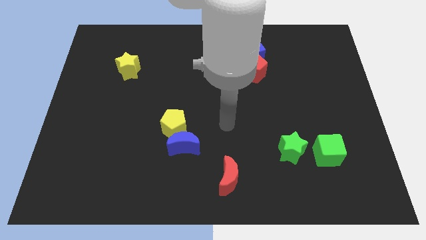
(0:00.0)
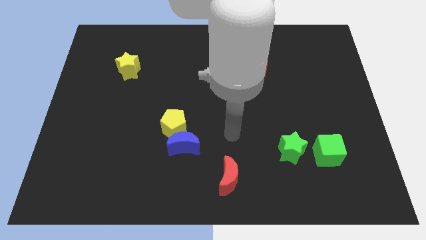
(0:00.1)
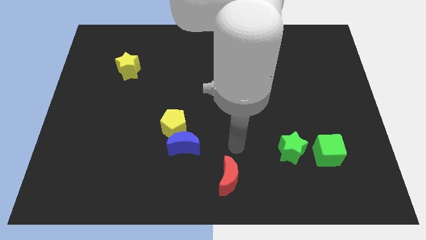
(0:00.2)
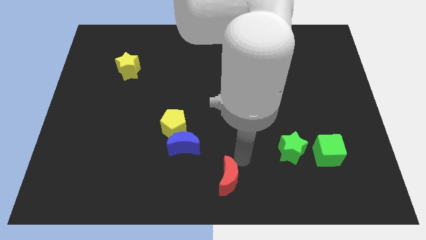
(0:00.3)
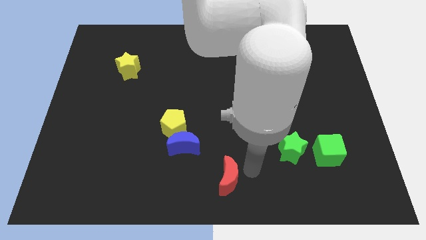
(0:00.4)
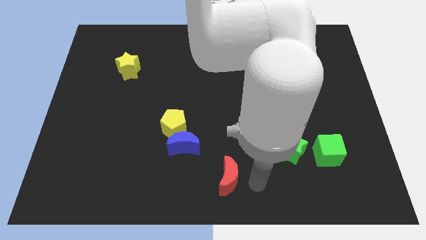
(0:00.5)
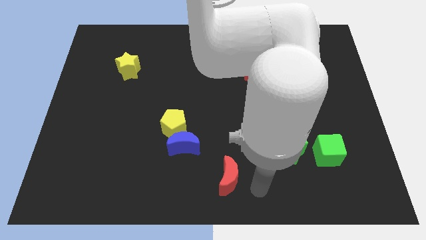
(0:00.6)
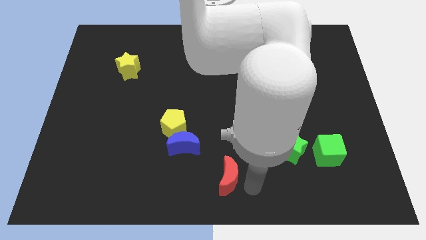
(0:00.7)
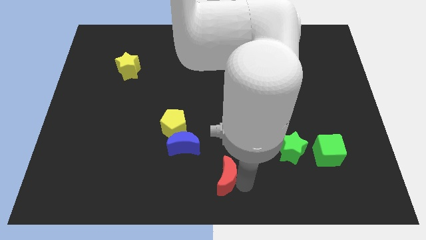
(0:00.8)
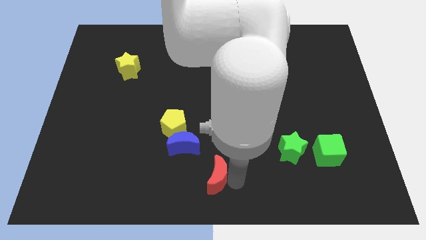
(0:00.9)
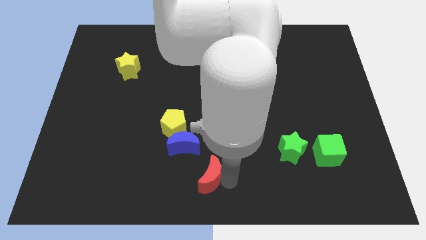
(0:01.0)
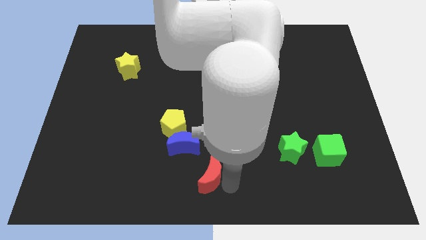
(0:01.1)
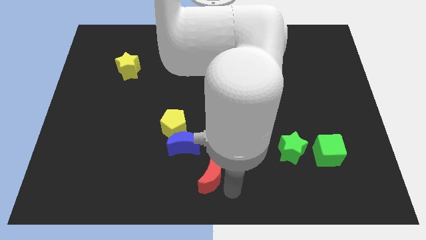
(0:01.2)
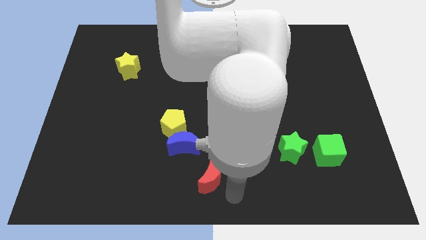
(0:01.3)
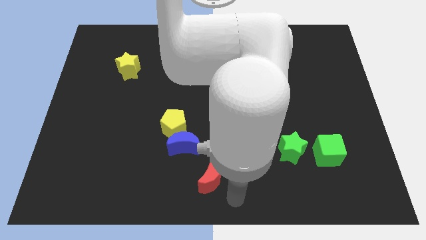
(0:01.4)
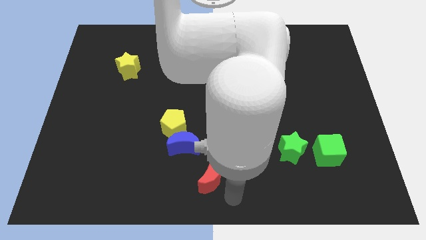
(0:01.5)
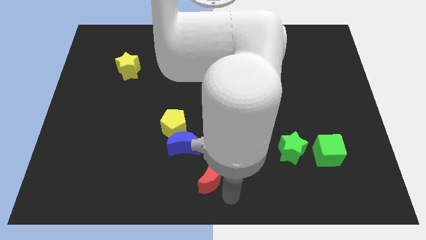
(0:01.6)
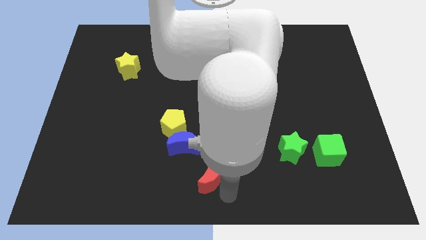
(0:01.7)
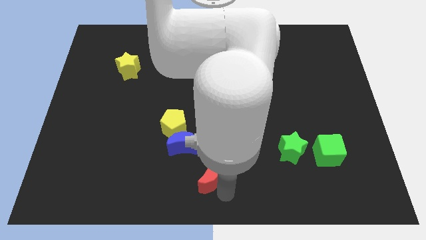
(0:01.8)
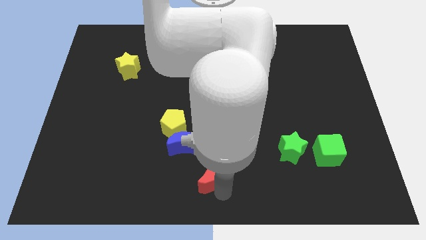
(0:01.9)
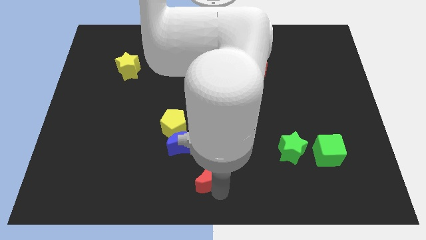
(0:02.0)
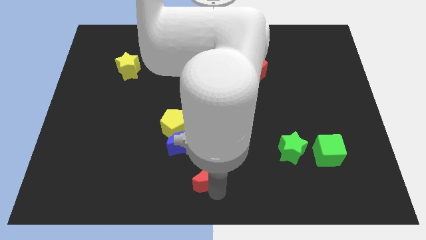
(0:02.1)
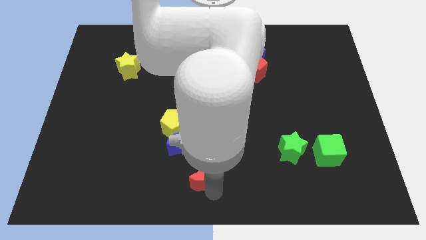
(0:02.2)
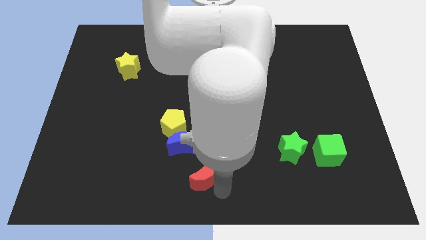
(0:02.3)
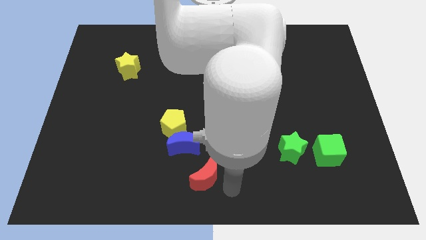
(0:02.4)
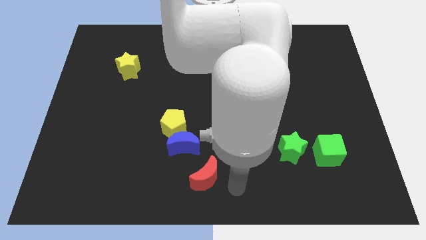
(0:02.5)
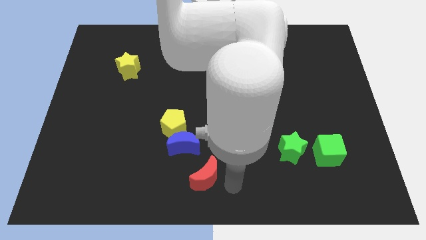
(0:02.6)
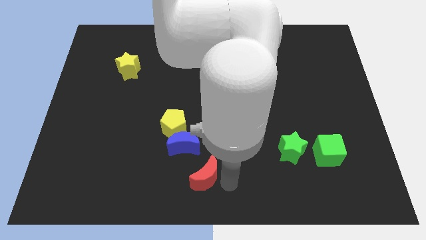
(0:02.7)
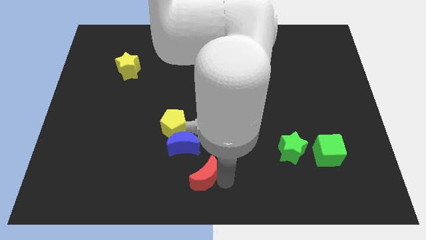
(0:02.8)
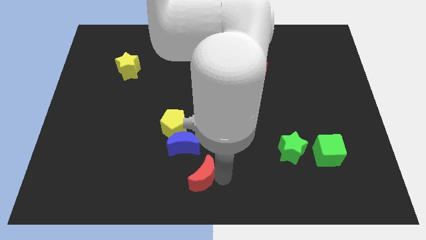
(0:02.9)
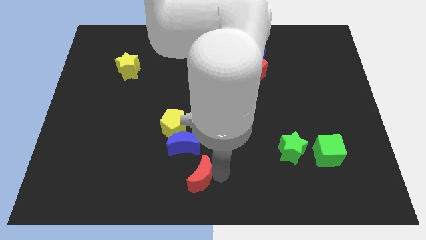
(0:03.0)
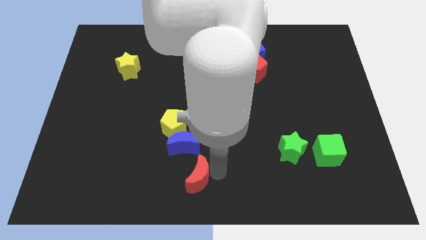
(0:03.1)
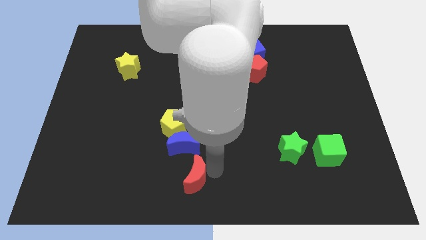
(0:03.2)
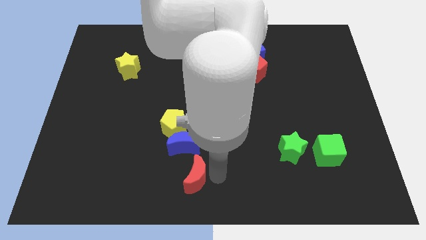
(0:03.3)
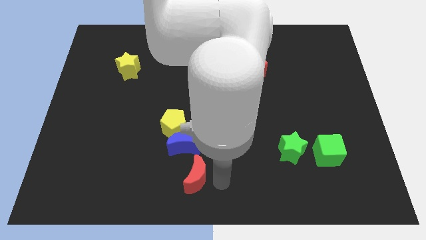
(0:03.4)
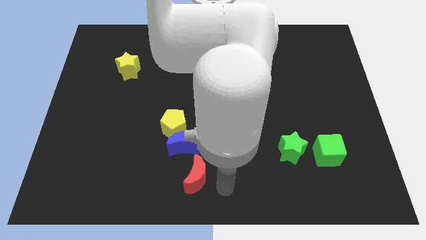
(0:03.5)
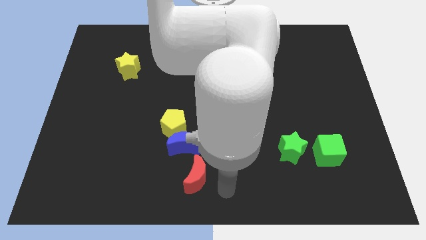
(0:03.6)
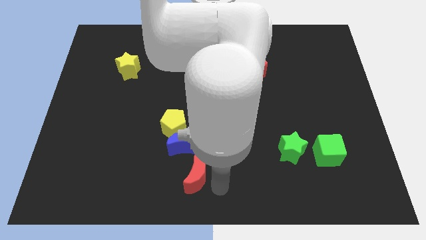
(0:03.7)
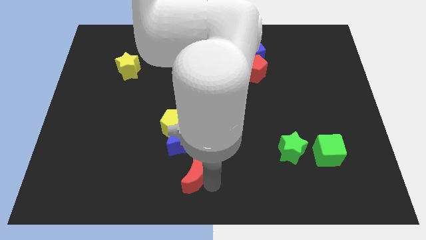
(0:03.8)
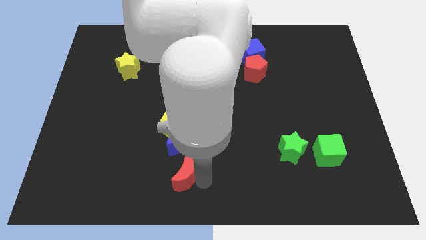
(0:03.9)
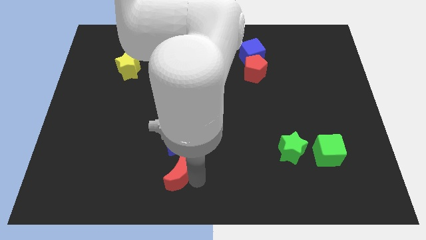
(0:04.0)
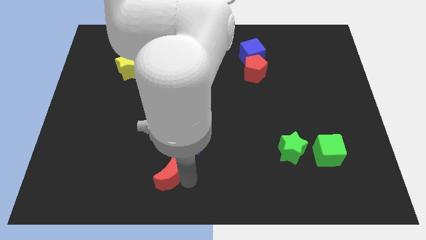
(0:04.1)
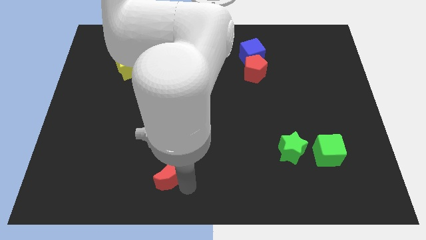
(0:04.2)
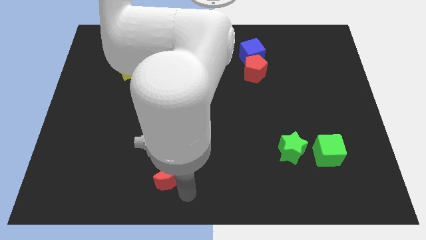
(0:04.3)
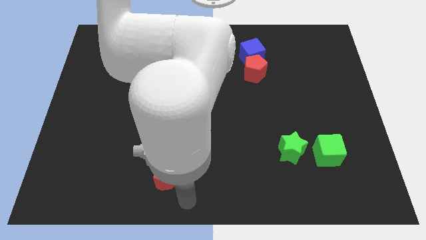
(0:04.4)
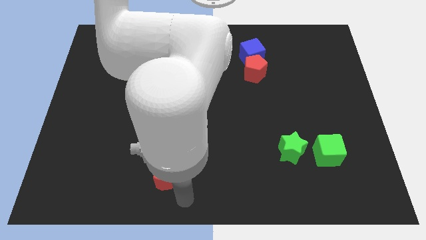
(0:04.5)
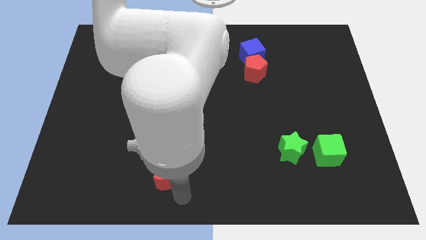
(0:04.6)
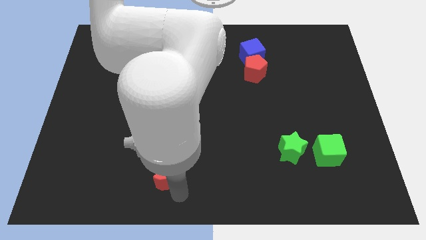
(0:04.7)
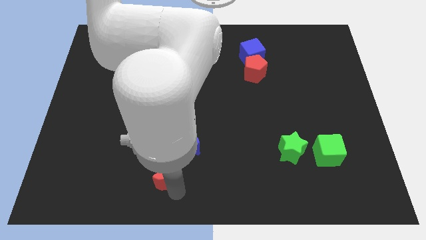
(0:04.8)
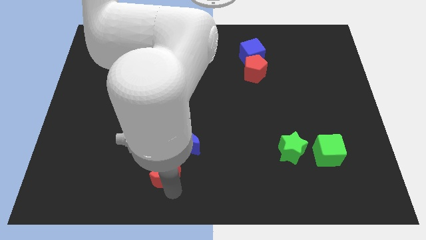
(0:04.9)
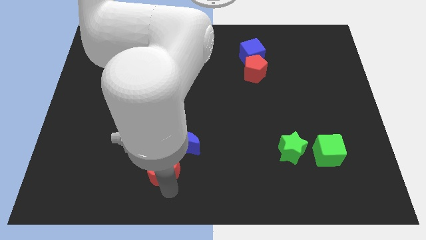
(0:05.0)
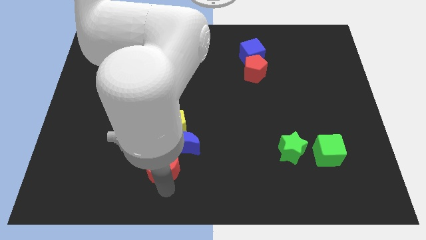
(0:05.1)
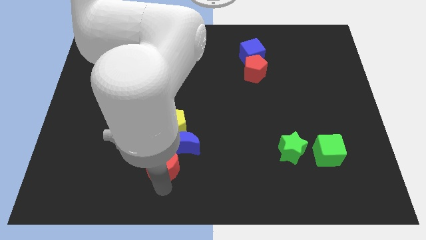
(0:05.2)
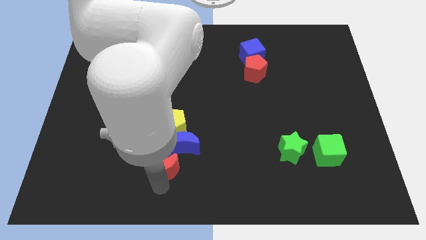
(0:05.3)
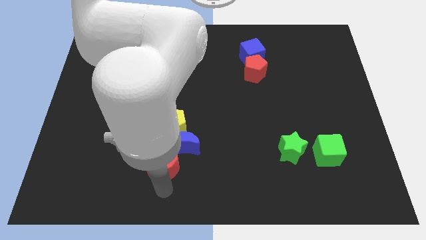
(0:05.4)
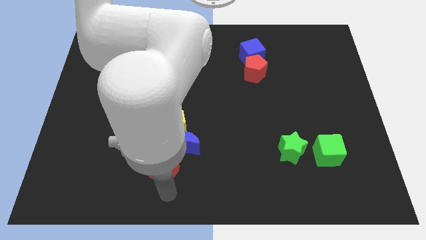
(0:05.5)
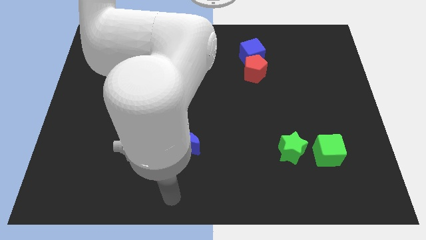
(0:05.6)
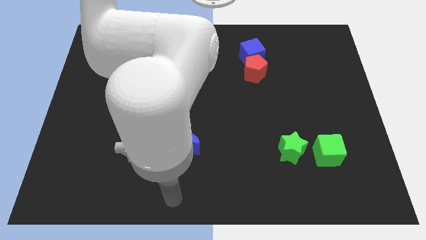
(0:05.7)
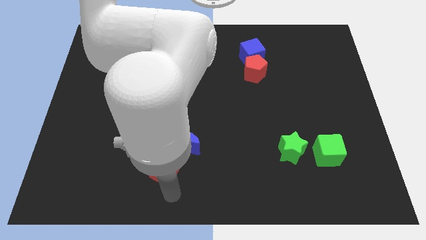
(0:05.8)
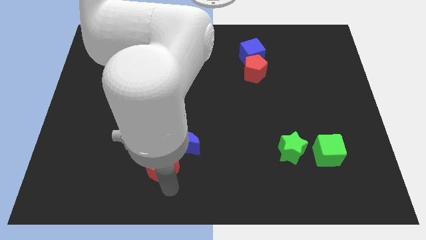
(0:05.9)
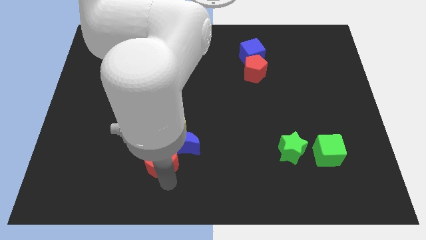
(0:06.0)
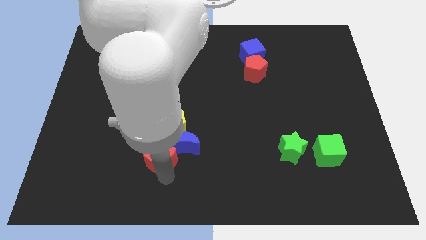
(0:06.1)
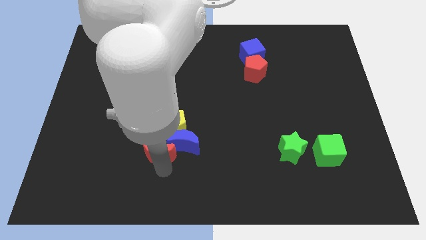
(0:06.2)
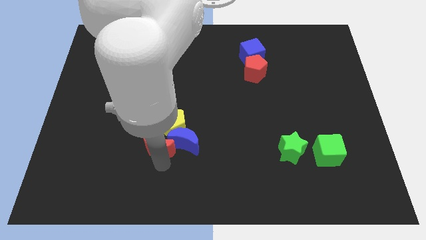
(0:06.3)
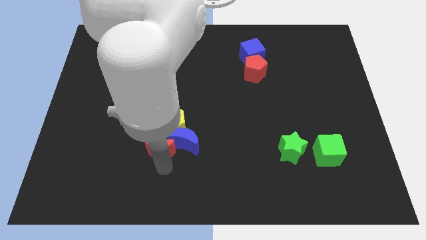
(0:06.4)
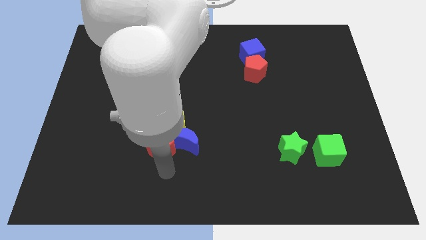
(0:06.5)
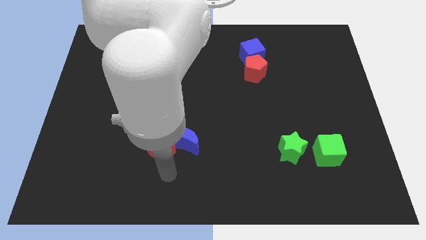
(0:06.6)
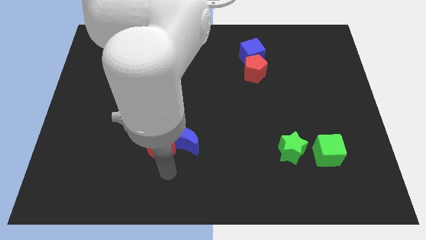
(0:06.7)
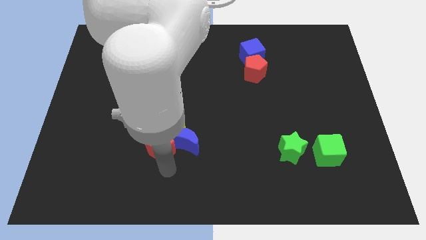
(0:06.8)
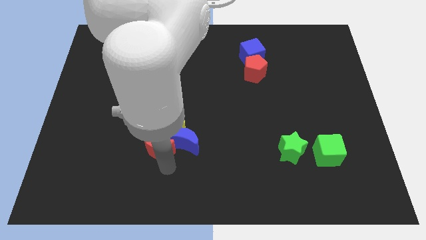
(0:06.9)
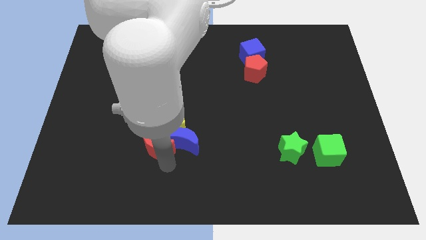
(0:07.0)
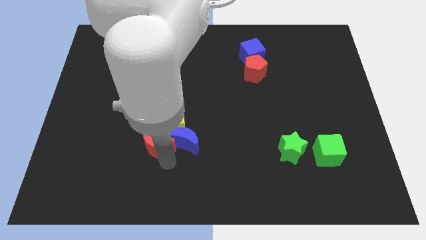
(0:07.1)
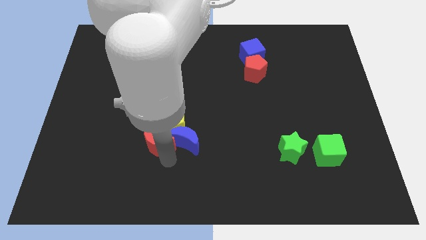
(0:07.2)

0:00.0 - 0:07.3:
slide the red moon to the top left of the blue moon
